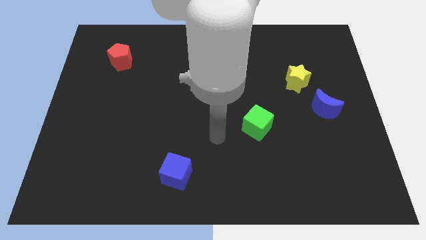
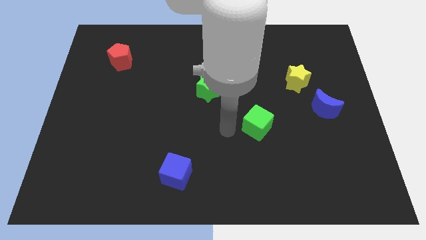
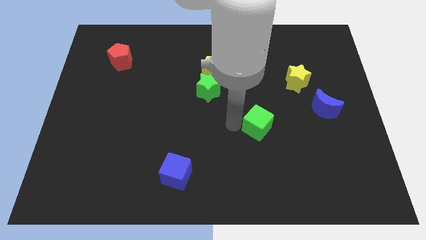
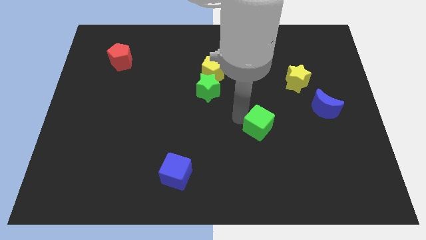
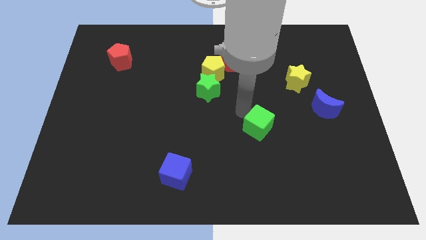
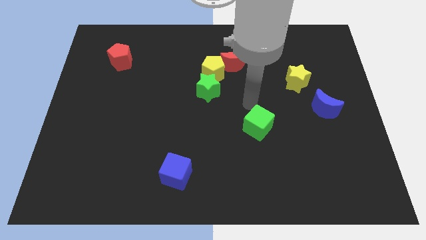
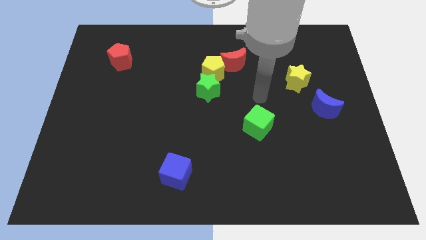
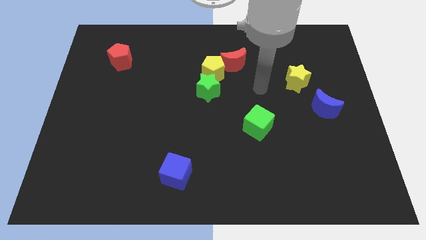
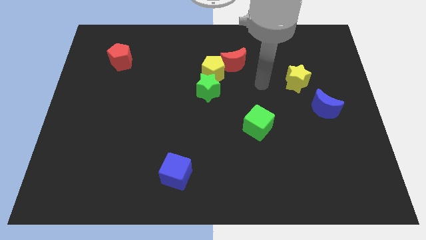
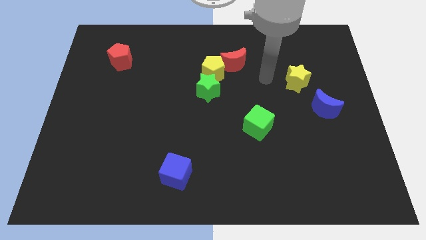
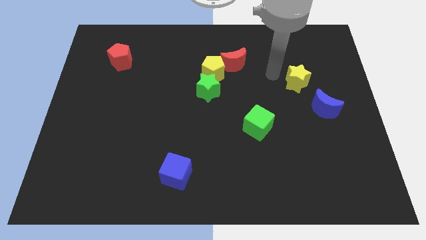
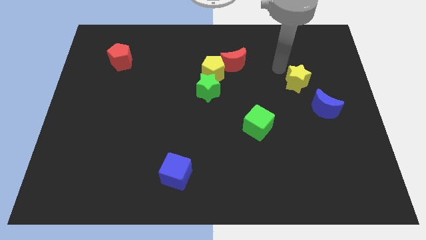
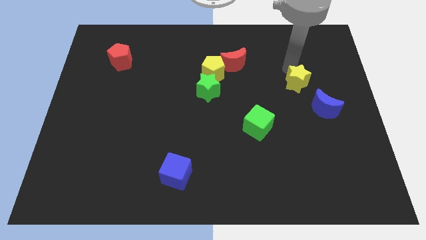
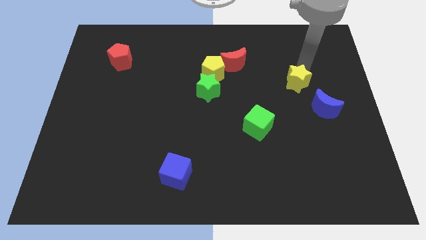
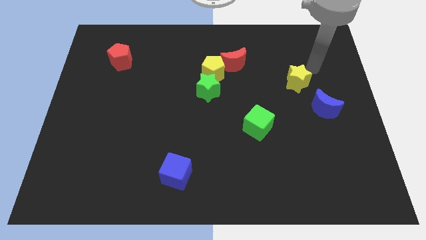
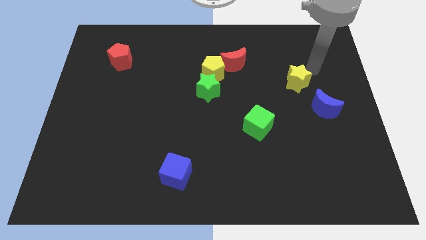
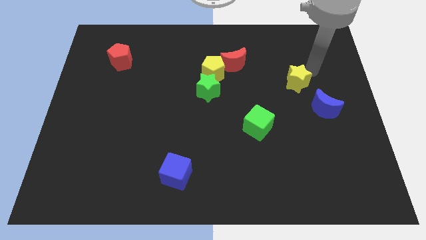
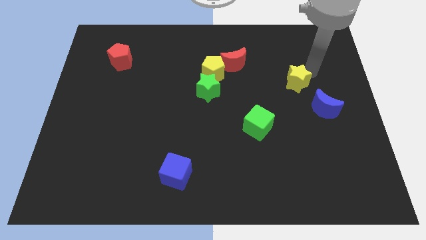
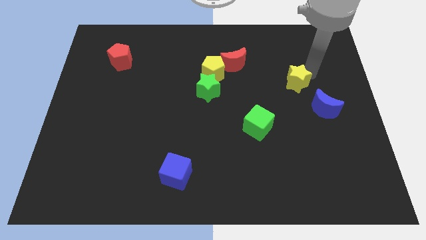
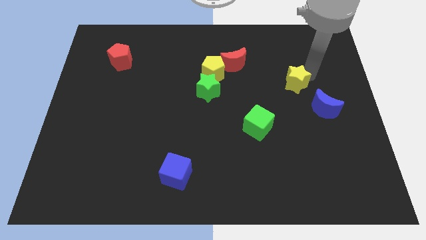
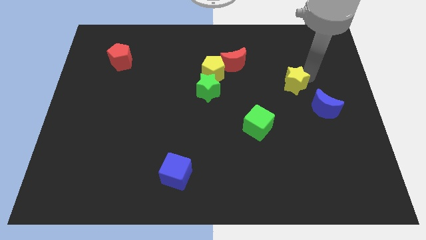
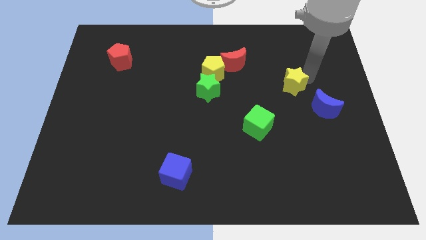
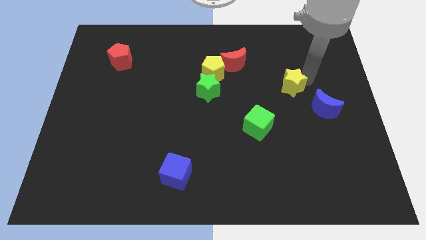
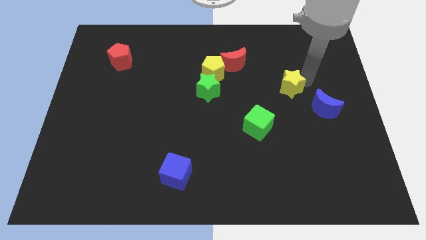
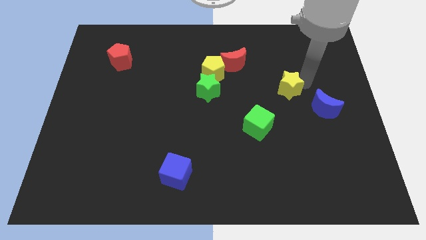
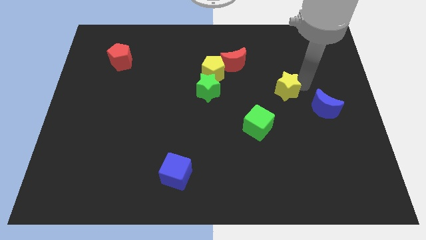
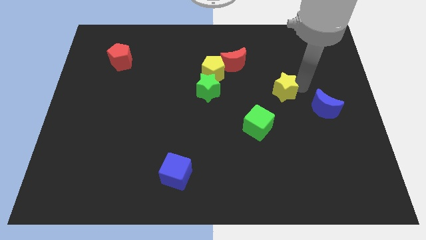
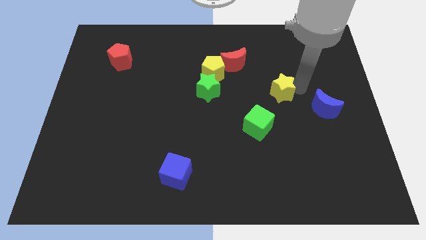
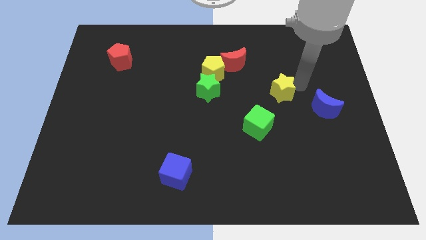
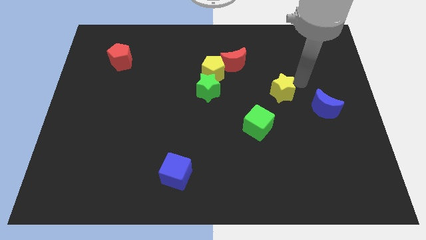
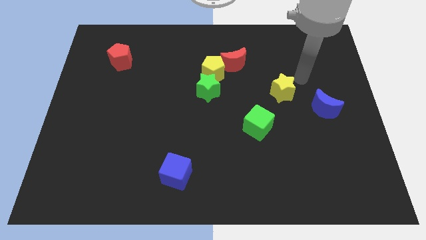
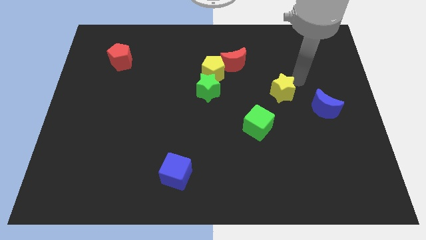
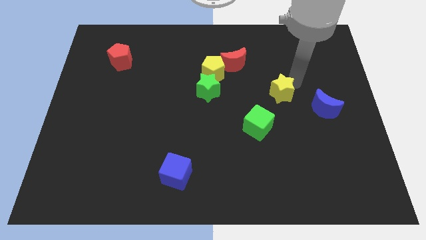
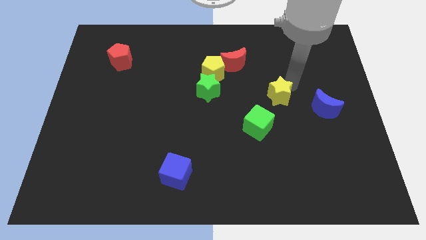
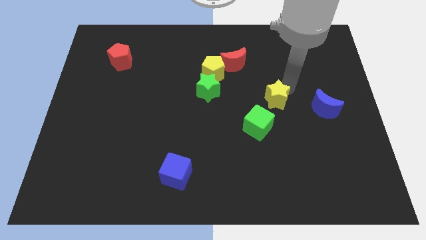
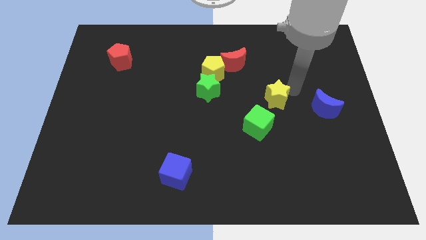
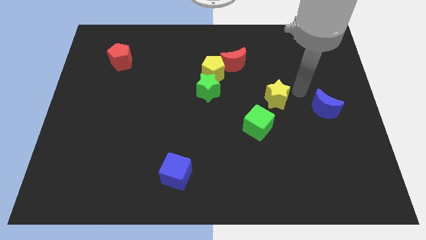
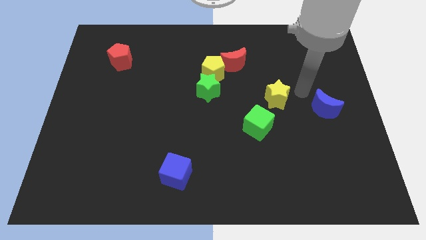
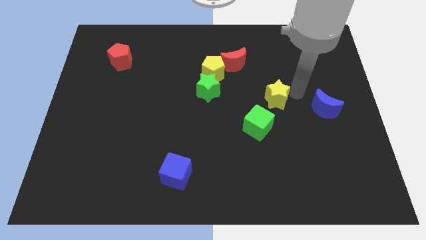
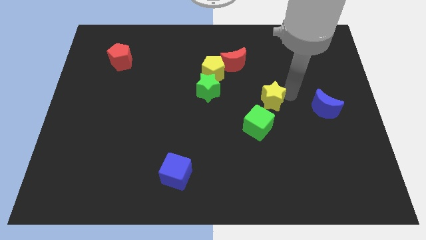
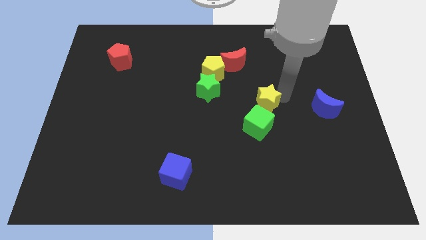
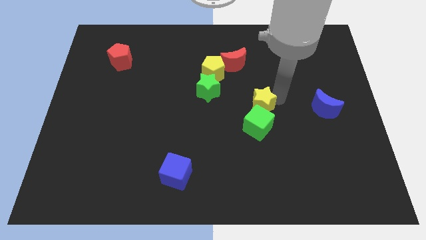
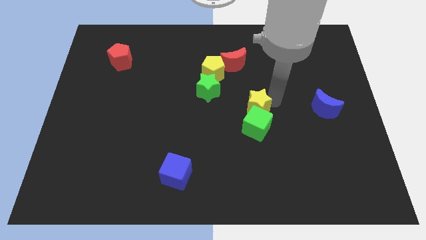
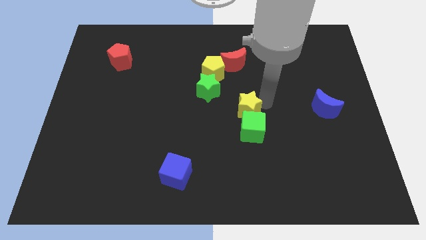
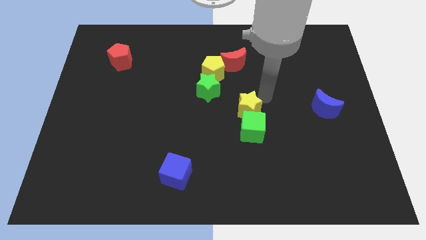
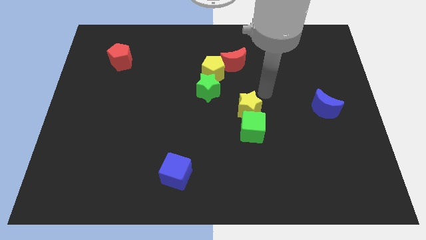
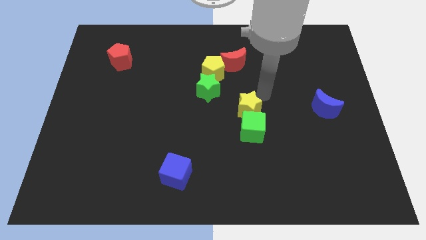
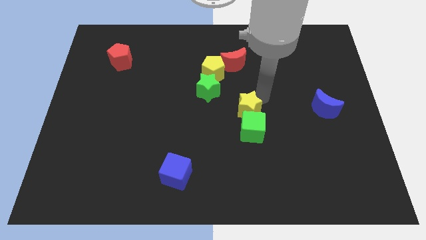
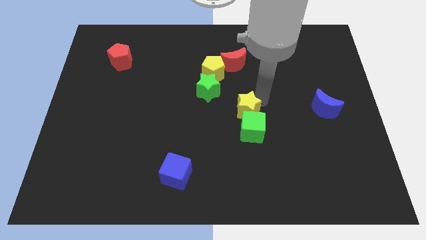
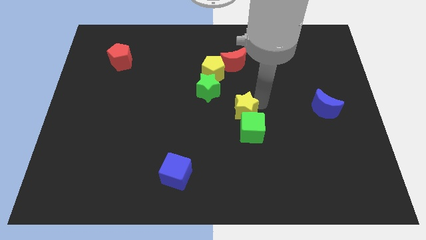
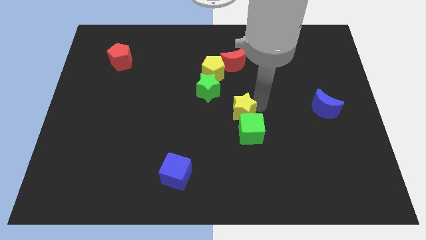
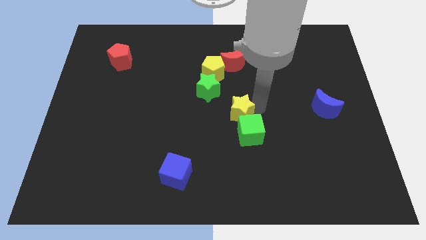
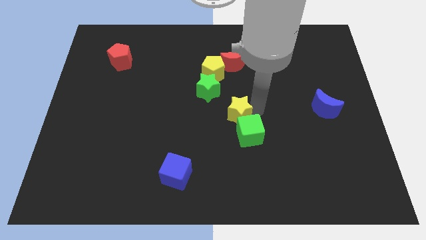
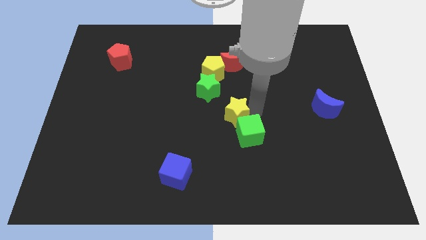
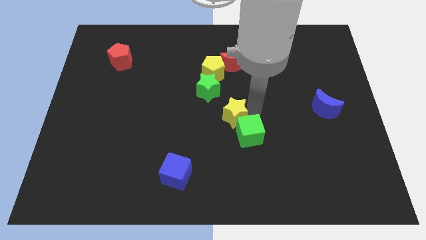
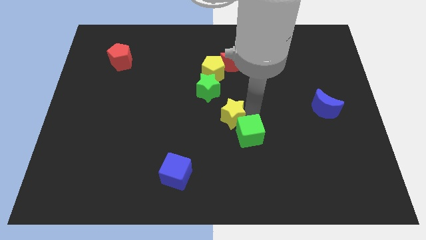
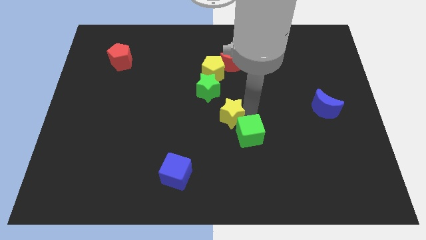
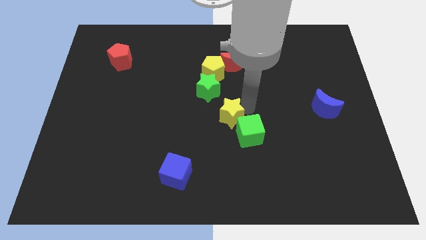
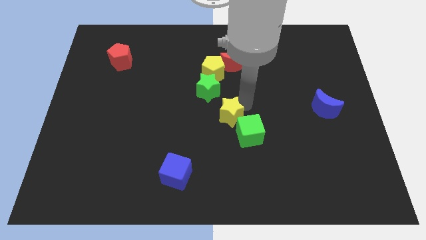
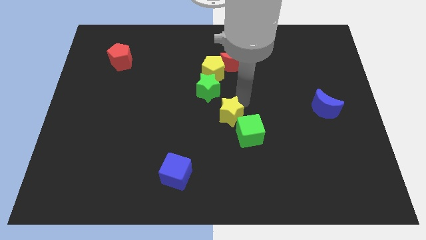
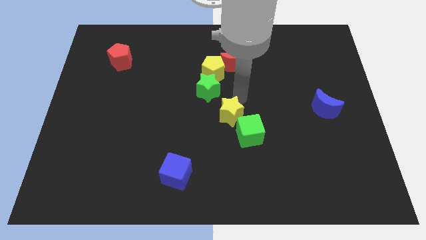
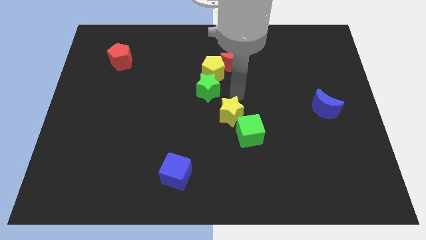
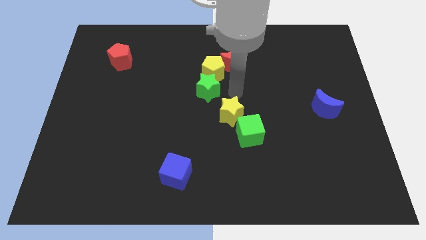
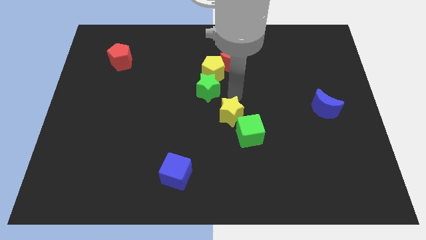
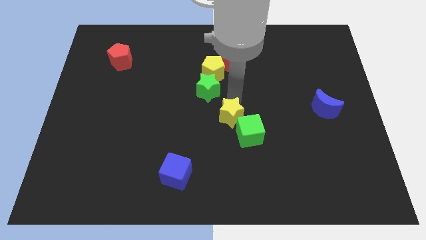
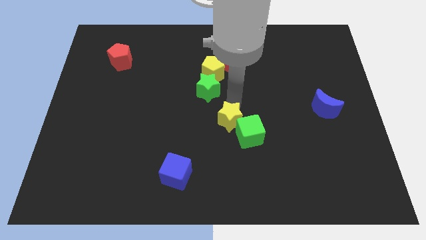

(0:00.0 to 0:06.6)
move the yellow star down and left diagonally

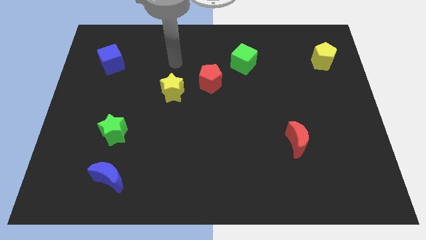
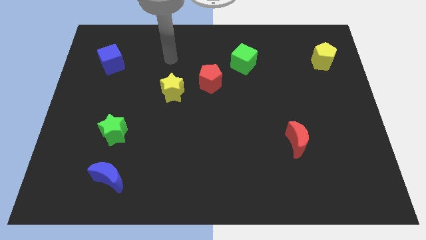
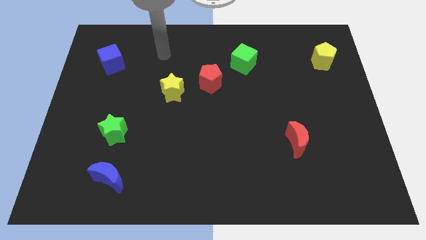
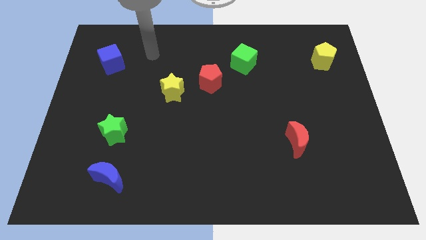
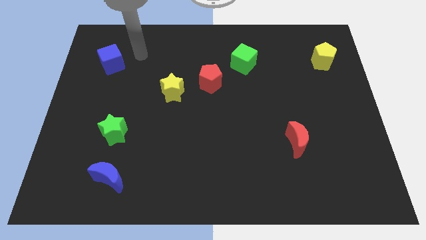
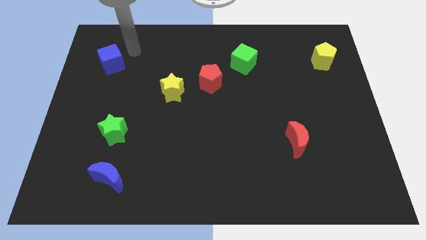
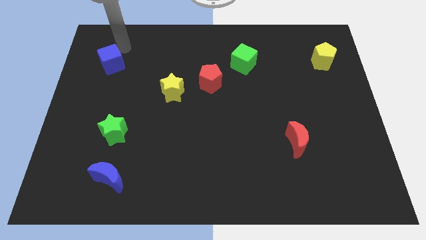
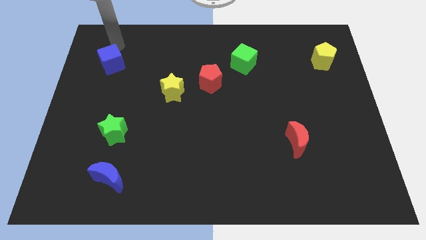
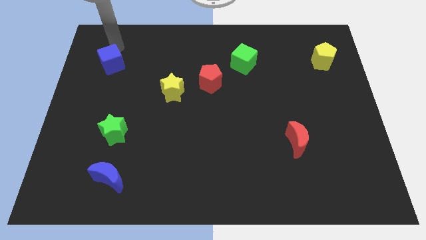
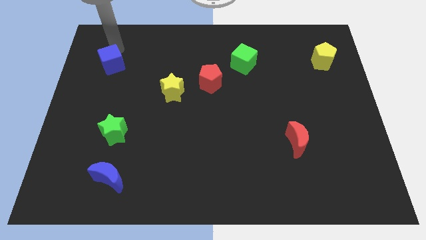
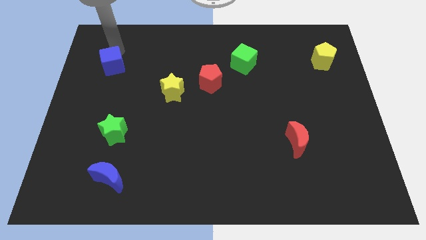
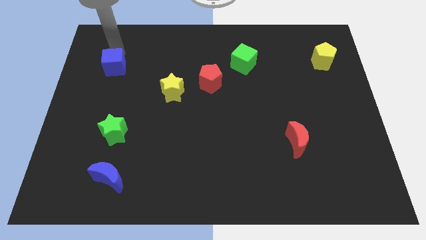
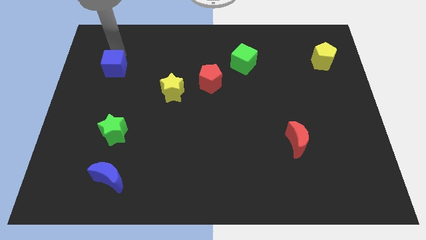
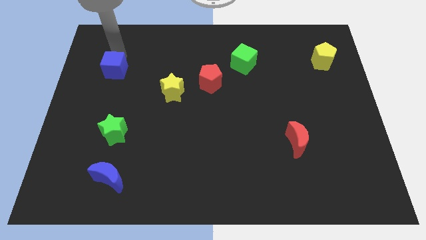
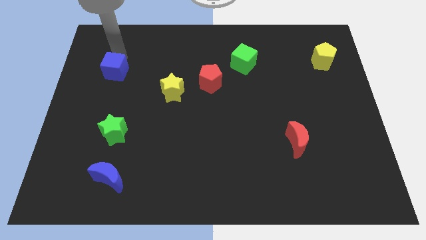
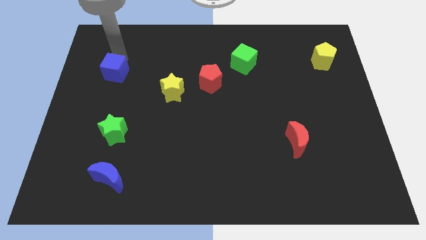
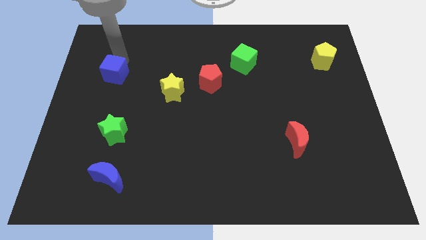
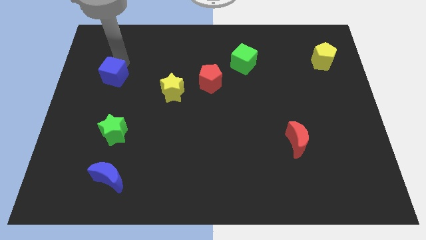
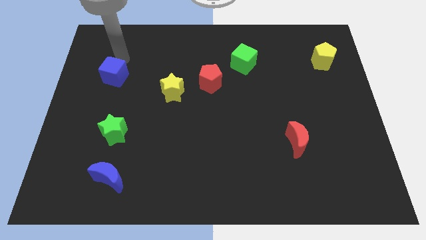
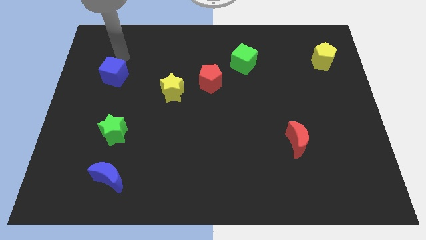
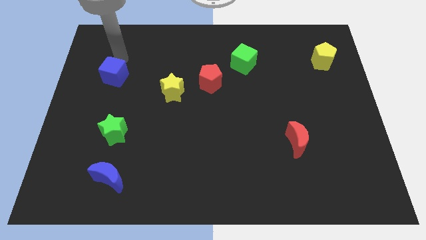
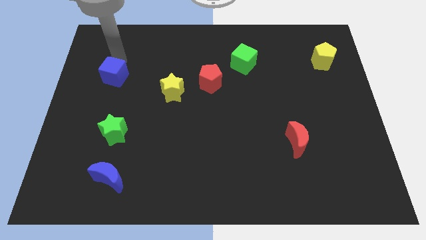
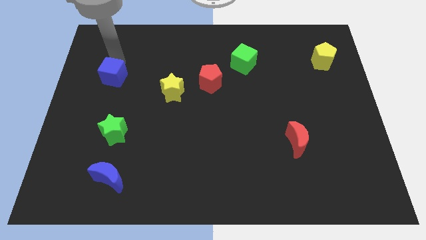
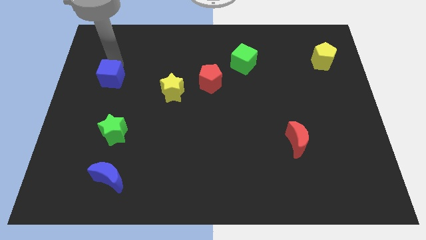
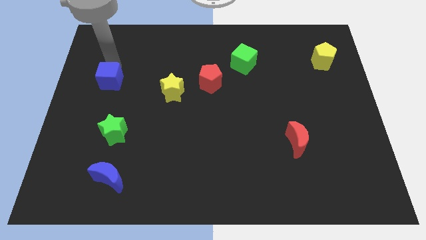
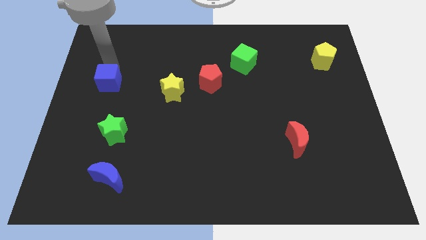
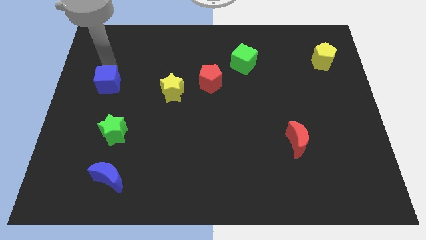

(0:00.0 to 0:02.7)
slide the blue cube somewhat downwards
